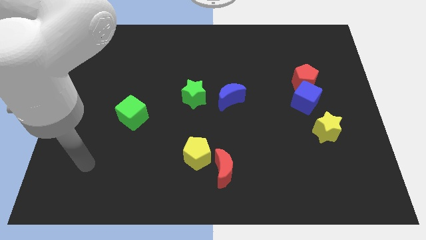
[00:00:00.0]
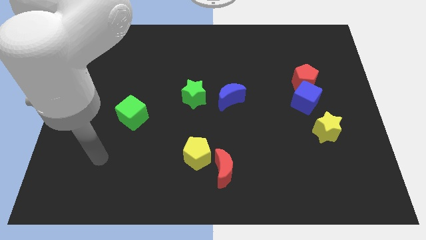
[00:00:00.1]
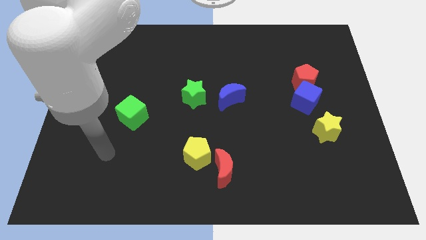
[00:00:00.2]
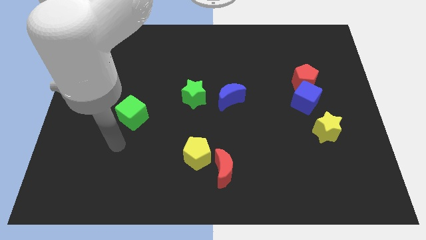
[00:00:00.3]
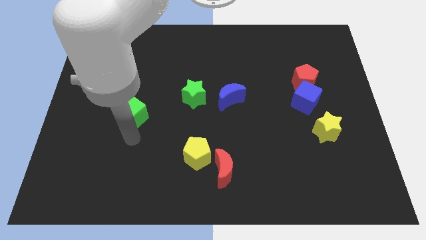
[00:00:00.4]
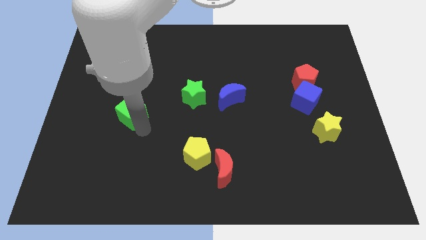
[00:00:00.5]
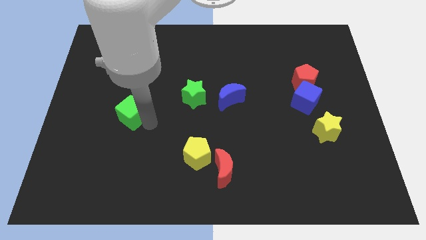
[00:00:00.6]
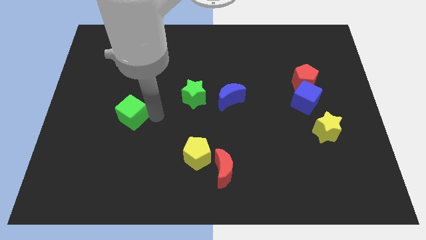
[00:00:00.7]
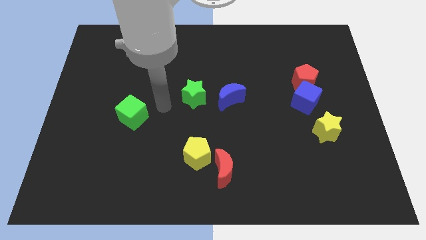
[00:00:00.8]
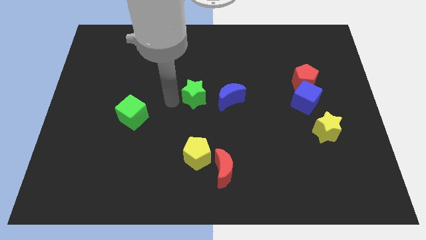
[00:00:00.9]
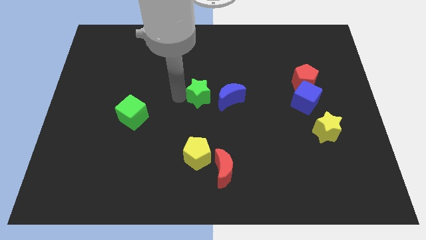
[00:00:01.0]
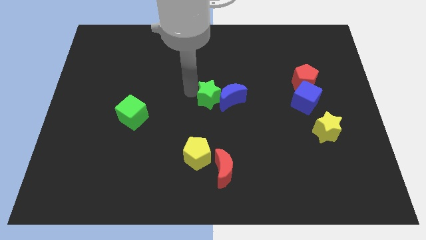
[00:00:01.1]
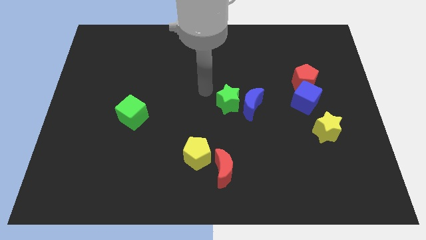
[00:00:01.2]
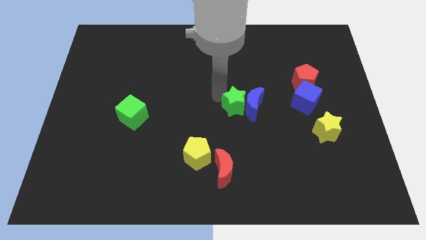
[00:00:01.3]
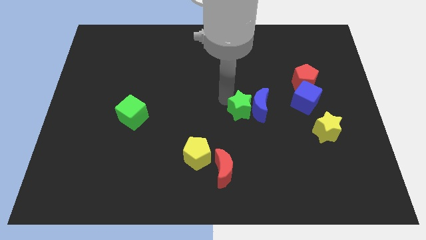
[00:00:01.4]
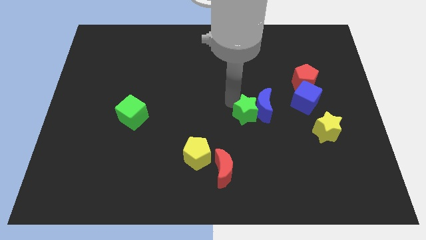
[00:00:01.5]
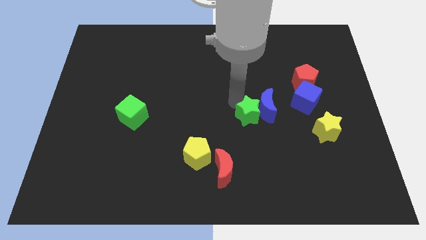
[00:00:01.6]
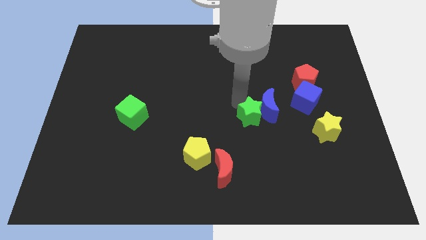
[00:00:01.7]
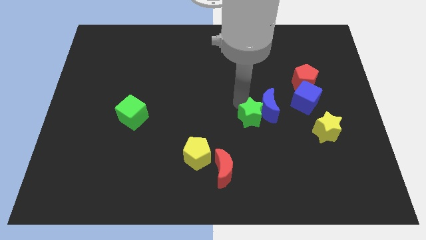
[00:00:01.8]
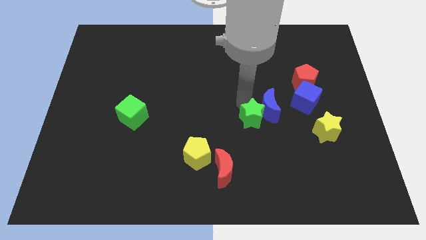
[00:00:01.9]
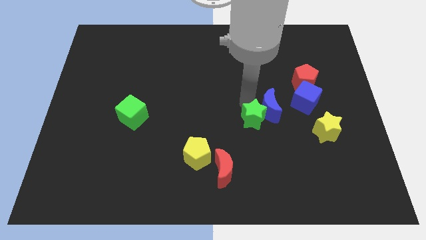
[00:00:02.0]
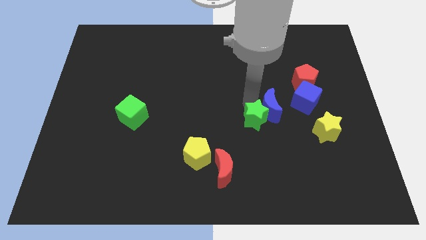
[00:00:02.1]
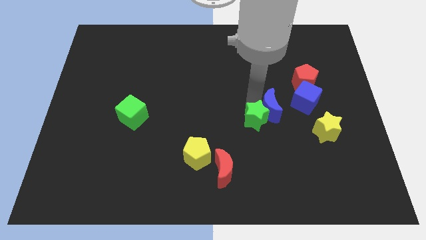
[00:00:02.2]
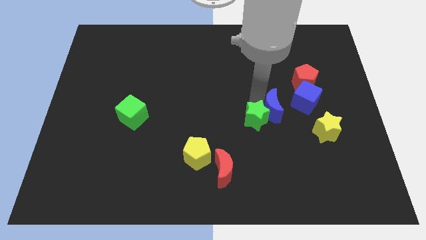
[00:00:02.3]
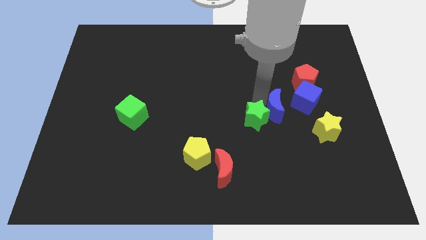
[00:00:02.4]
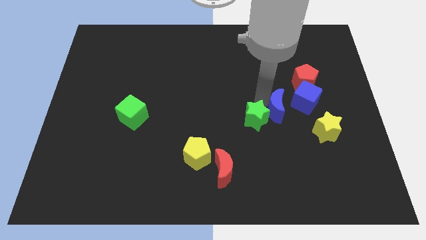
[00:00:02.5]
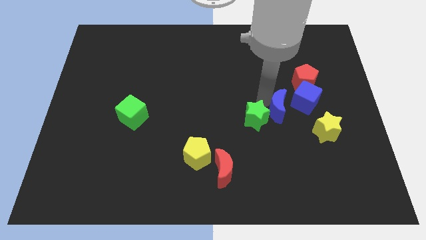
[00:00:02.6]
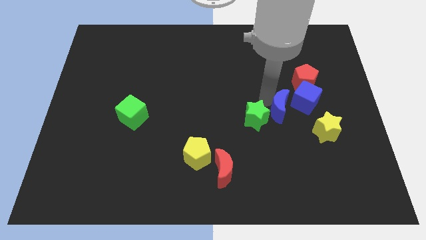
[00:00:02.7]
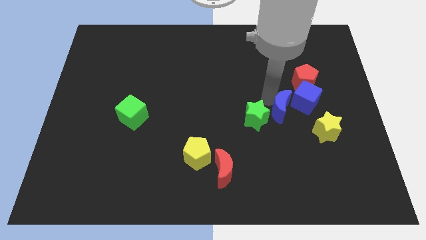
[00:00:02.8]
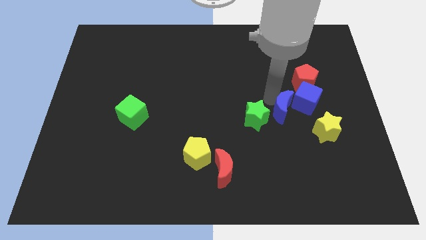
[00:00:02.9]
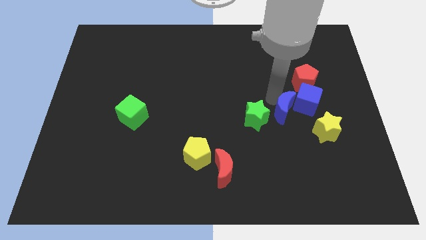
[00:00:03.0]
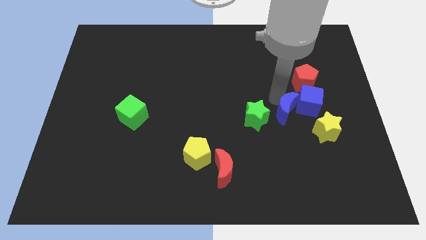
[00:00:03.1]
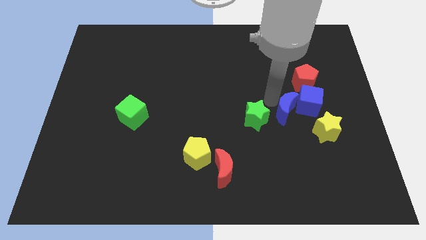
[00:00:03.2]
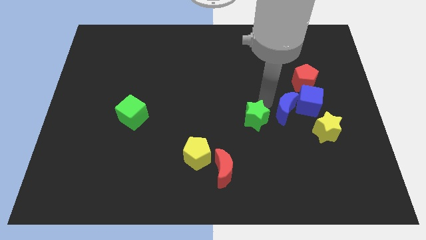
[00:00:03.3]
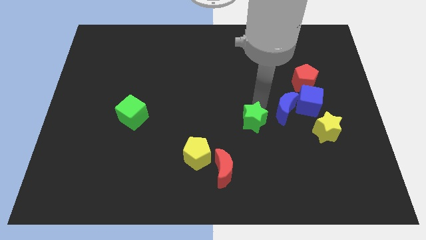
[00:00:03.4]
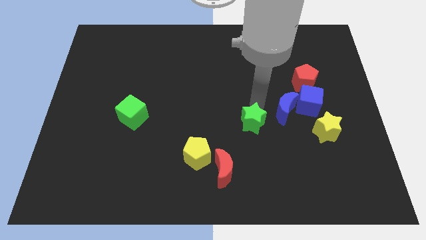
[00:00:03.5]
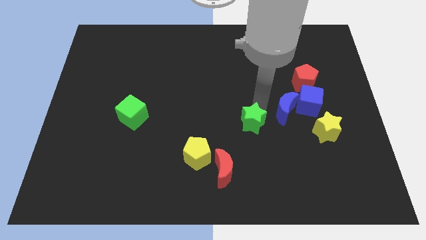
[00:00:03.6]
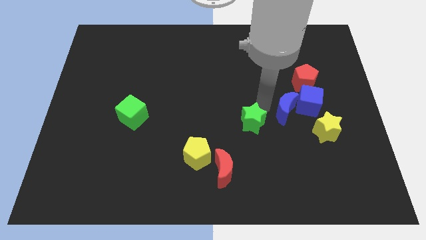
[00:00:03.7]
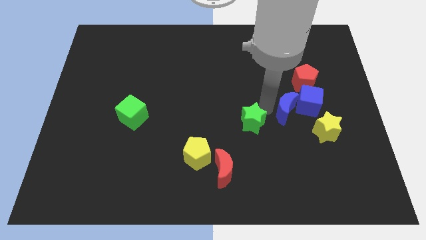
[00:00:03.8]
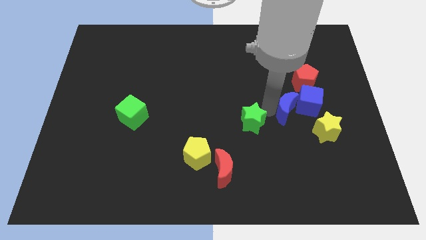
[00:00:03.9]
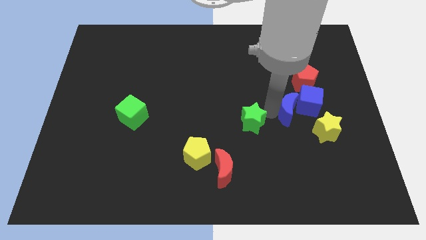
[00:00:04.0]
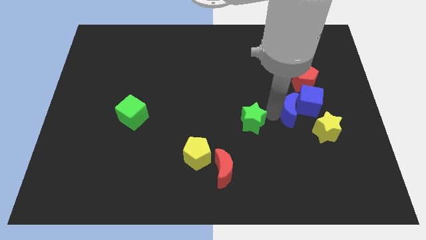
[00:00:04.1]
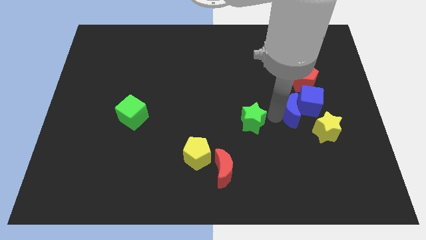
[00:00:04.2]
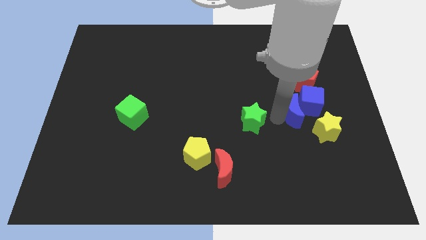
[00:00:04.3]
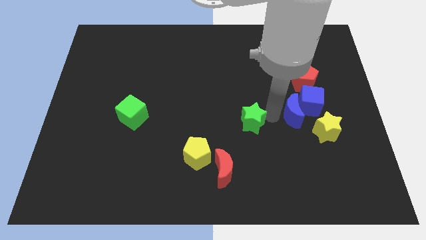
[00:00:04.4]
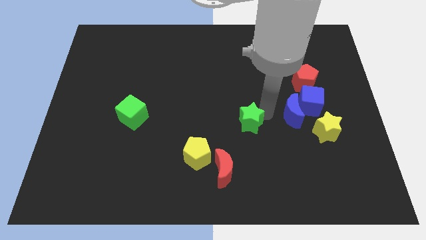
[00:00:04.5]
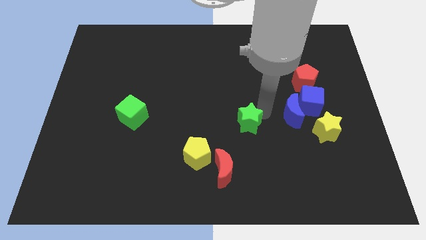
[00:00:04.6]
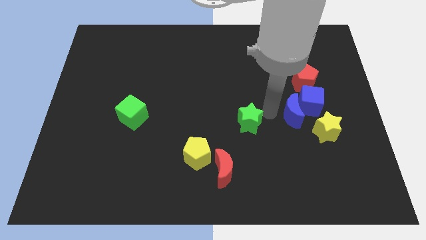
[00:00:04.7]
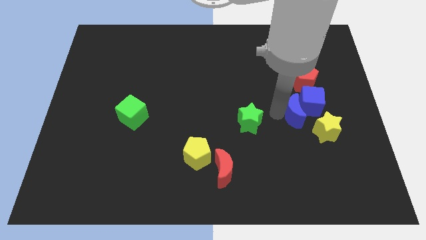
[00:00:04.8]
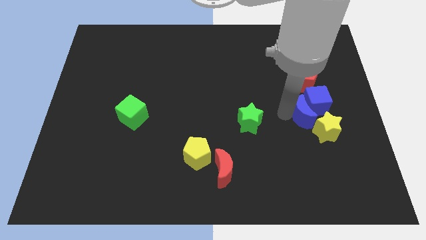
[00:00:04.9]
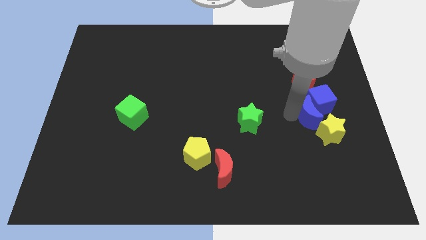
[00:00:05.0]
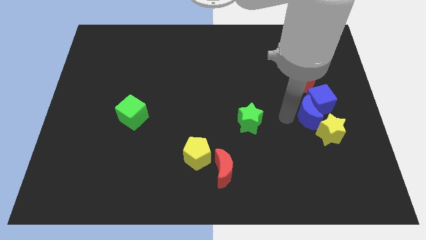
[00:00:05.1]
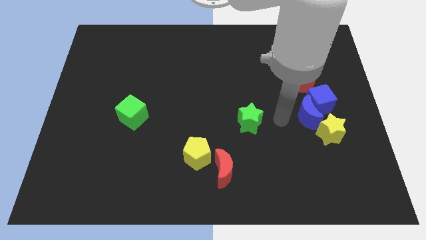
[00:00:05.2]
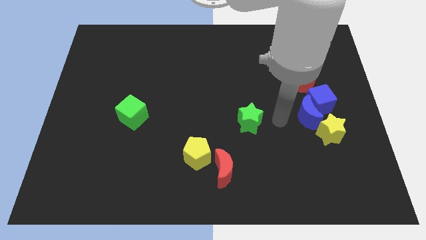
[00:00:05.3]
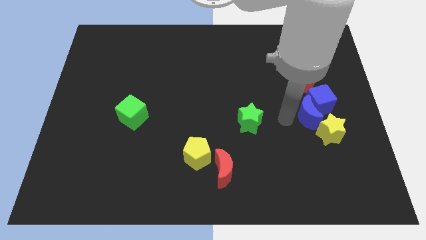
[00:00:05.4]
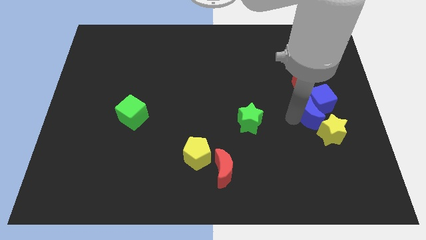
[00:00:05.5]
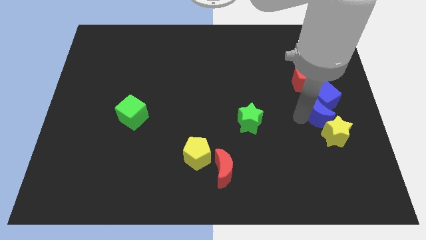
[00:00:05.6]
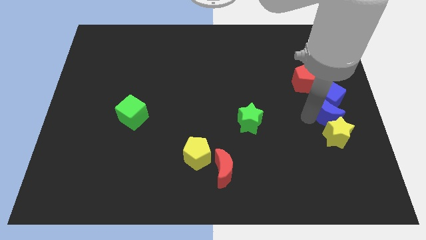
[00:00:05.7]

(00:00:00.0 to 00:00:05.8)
push the blue moon to the center right
